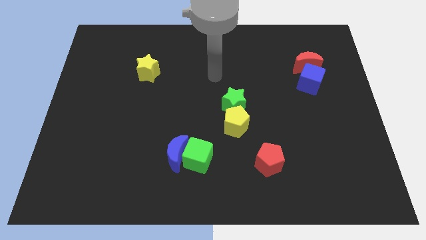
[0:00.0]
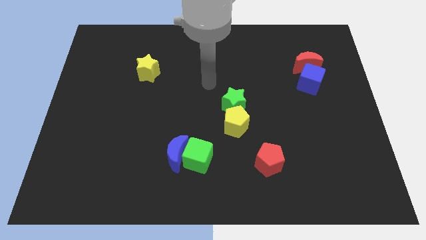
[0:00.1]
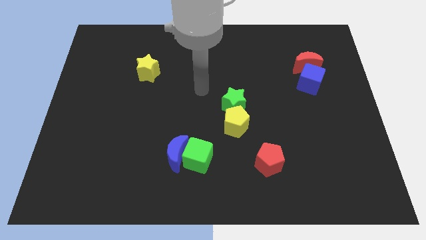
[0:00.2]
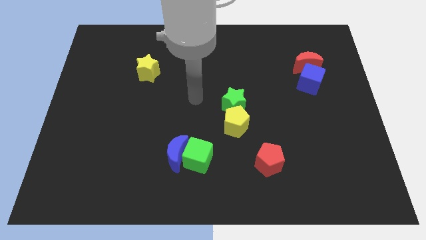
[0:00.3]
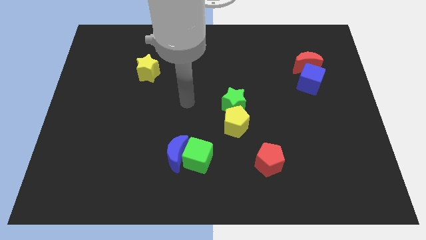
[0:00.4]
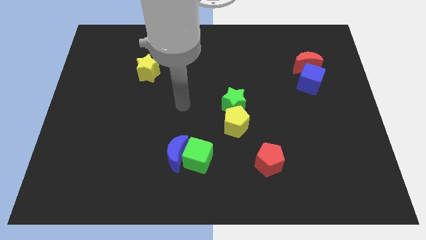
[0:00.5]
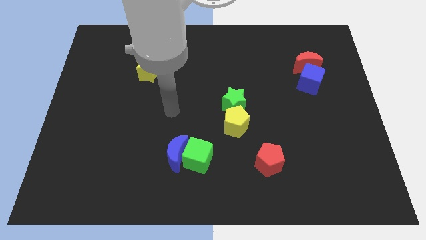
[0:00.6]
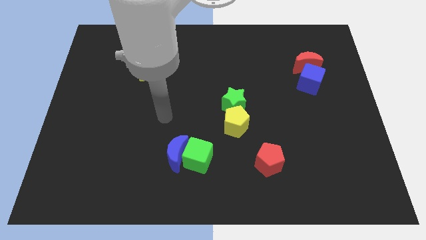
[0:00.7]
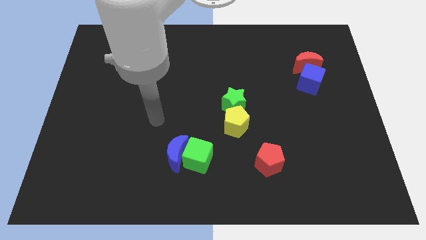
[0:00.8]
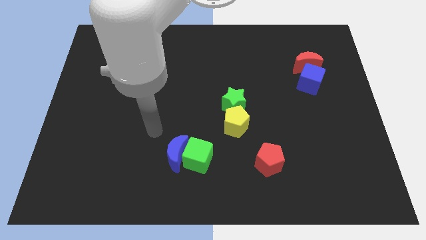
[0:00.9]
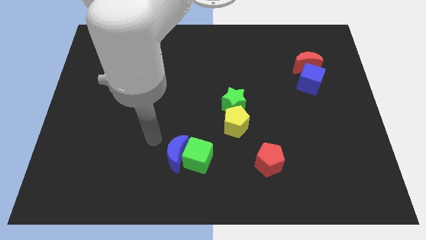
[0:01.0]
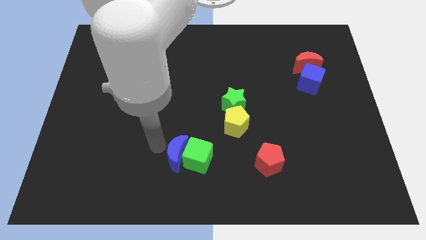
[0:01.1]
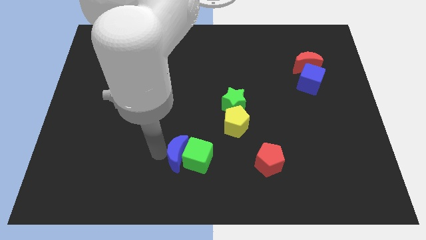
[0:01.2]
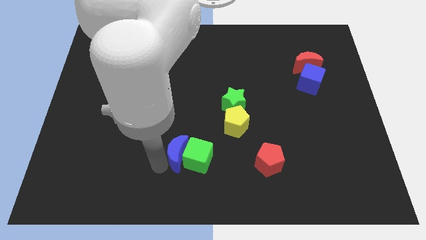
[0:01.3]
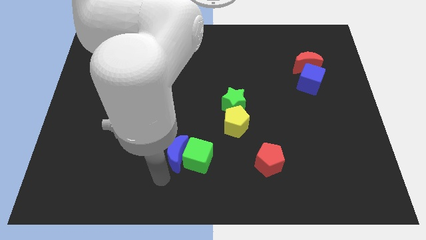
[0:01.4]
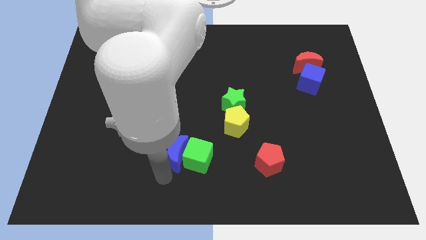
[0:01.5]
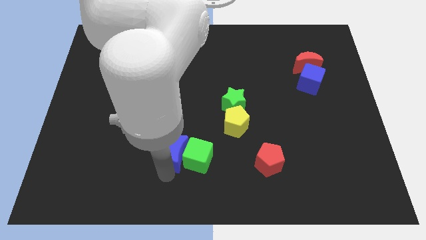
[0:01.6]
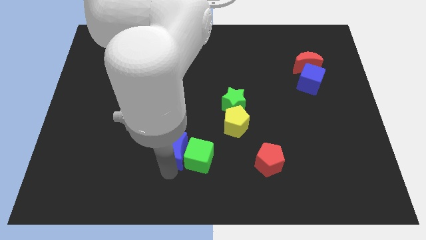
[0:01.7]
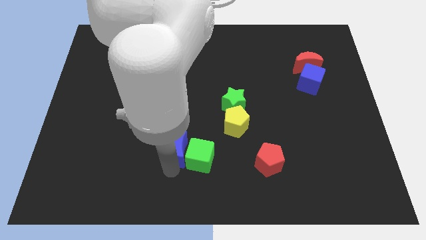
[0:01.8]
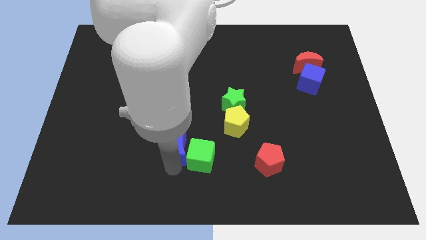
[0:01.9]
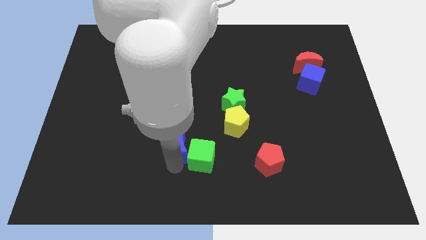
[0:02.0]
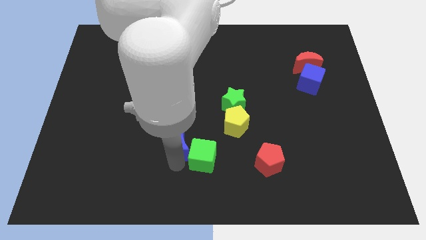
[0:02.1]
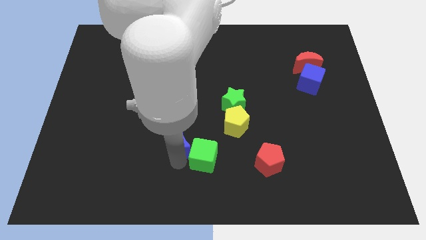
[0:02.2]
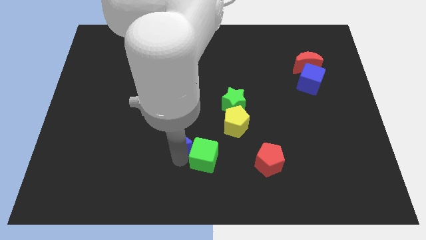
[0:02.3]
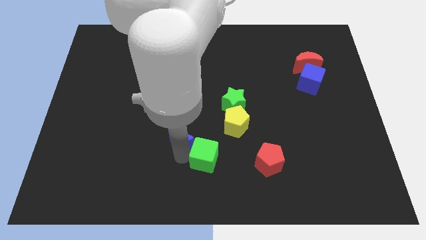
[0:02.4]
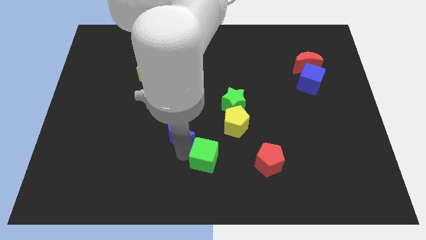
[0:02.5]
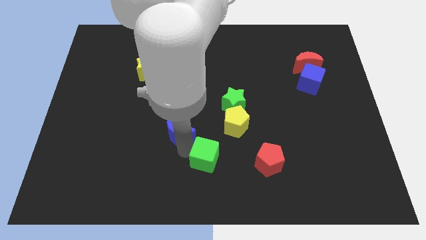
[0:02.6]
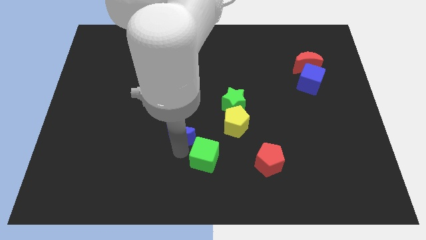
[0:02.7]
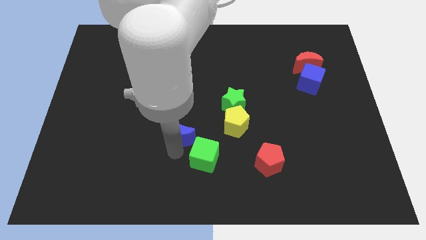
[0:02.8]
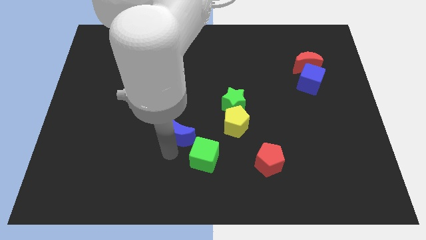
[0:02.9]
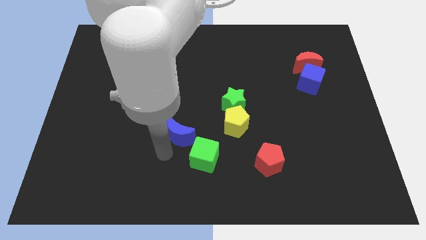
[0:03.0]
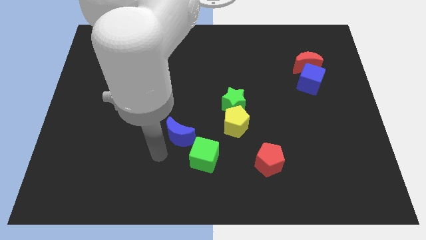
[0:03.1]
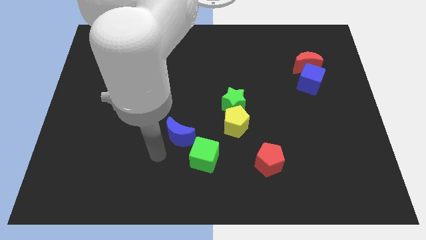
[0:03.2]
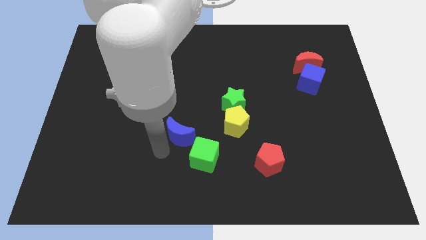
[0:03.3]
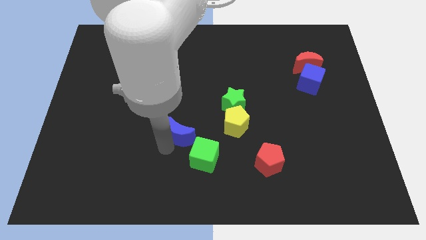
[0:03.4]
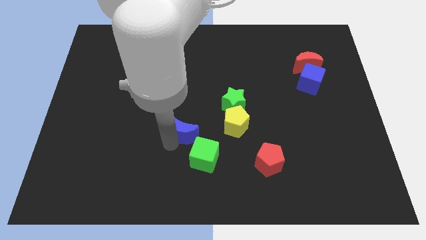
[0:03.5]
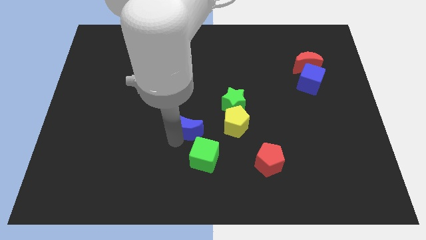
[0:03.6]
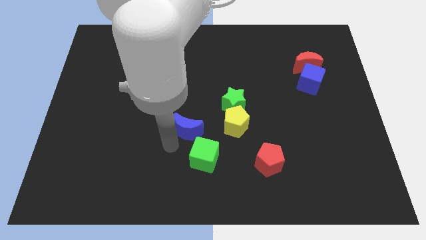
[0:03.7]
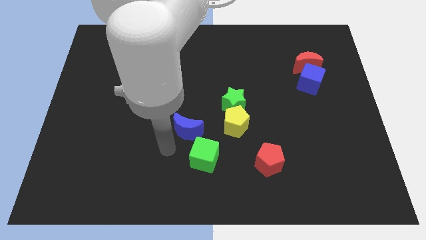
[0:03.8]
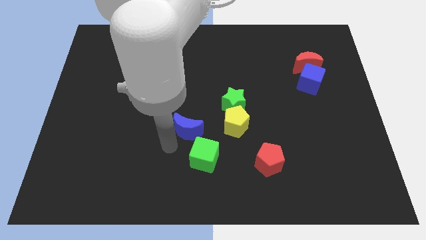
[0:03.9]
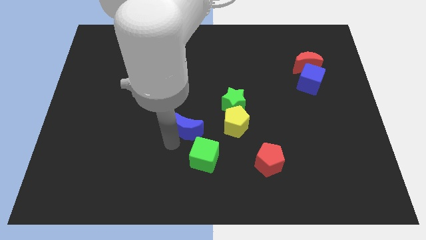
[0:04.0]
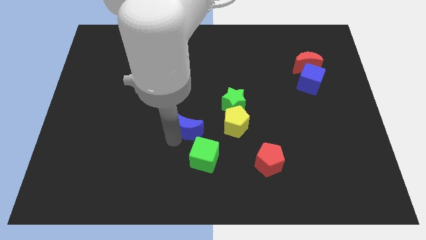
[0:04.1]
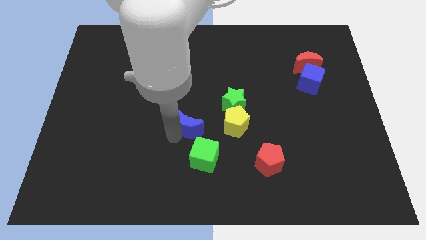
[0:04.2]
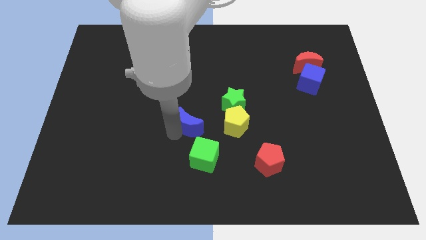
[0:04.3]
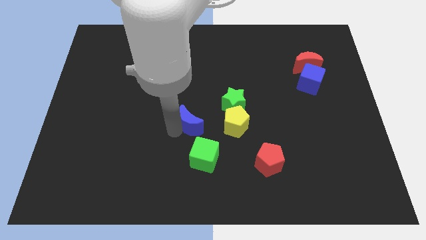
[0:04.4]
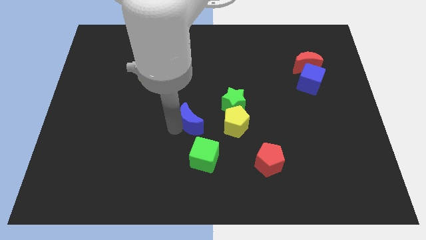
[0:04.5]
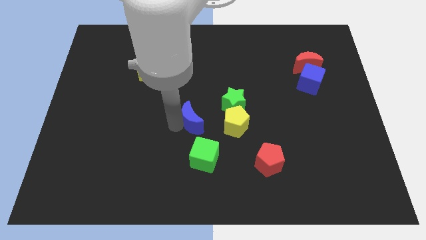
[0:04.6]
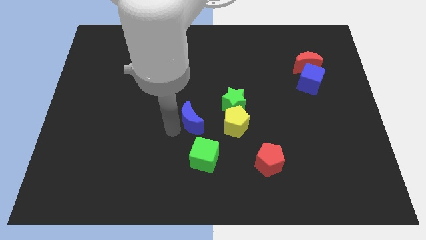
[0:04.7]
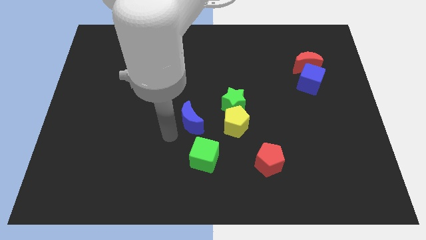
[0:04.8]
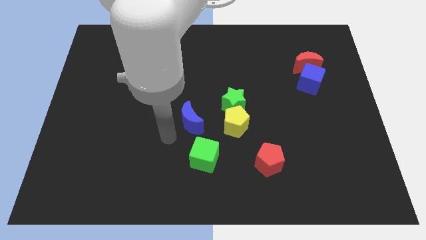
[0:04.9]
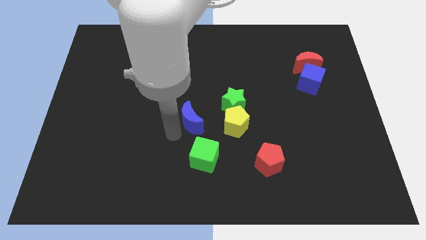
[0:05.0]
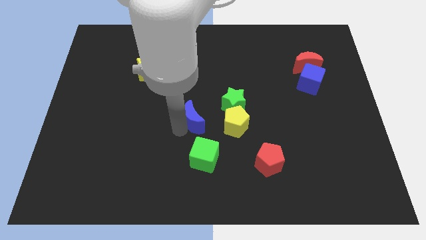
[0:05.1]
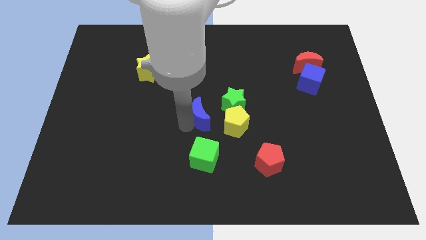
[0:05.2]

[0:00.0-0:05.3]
slide the blue moon diagonally up and to the left of the yellow pentagon

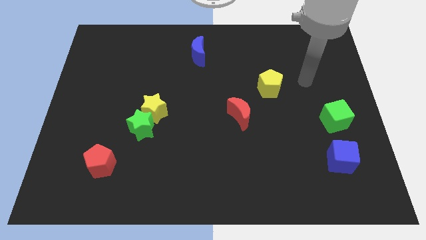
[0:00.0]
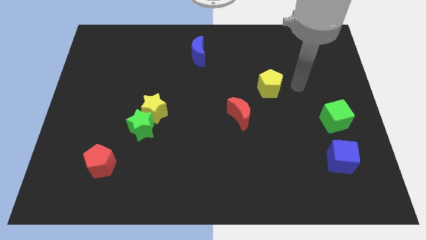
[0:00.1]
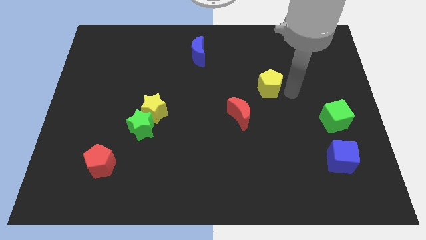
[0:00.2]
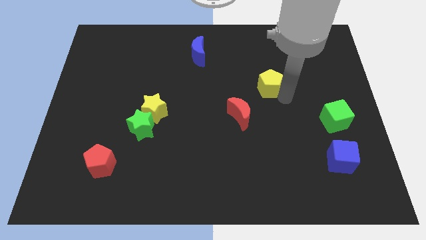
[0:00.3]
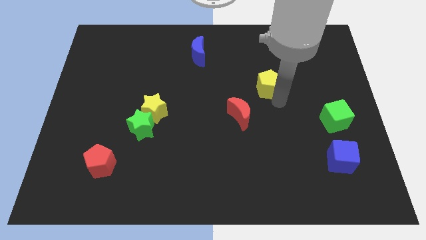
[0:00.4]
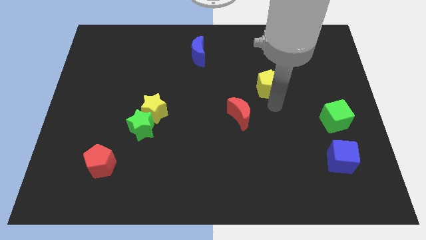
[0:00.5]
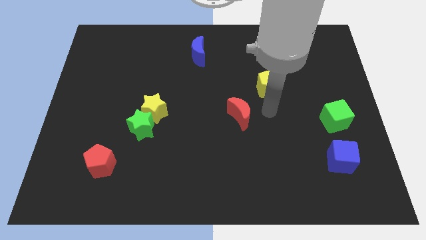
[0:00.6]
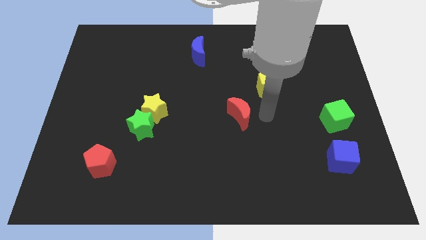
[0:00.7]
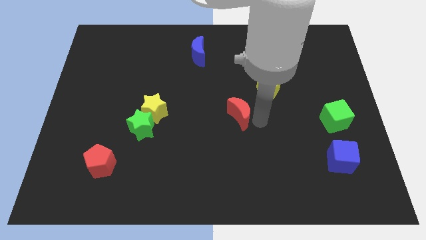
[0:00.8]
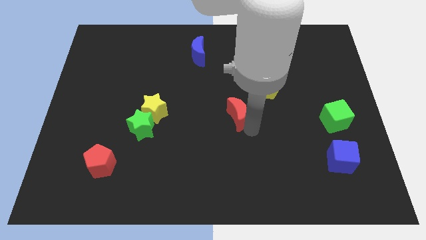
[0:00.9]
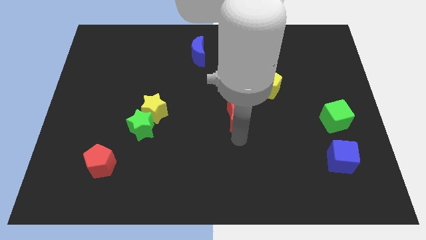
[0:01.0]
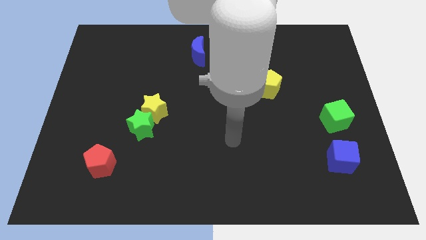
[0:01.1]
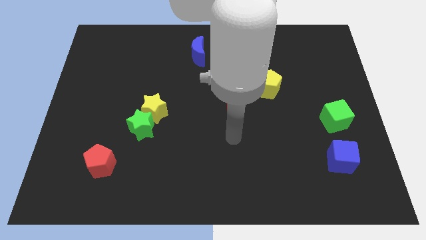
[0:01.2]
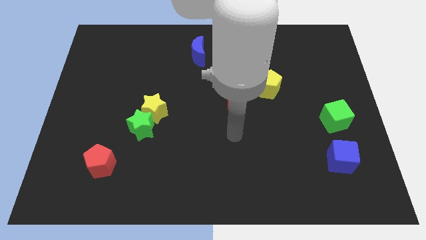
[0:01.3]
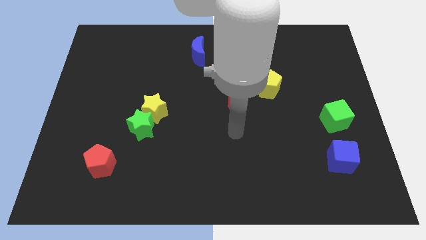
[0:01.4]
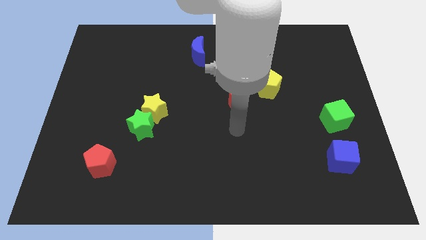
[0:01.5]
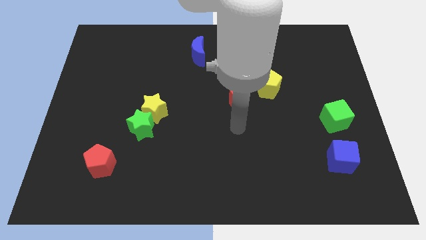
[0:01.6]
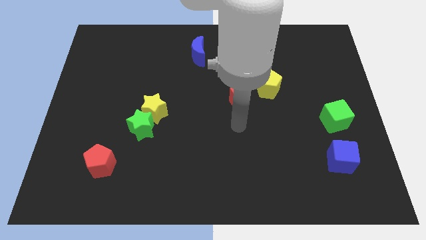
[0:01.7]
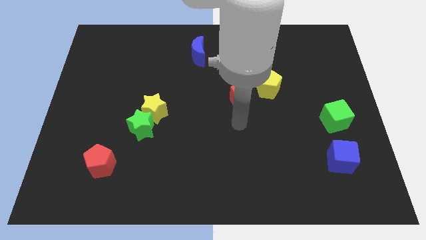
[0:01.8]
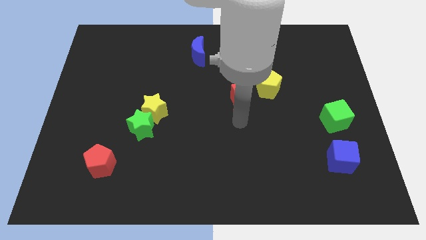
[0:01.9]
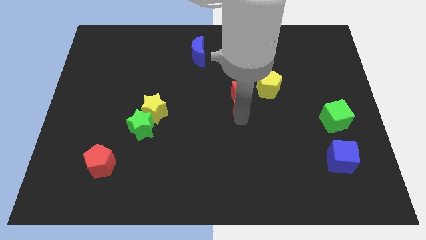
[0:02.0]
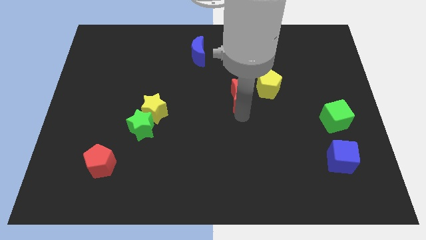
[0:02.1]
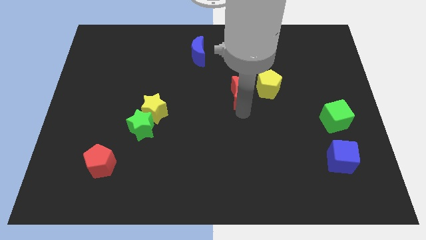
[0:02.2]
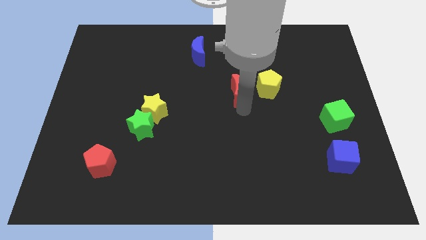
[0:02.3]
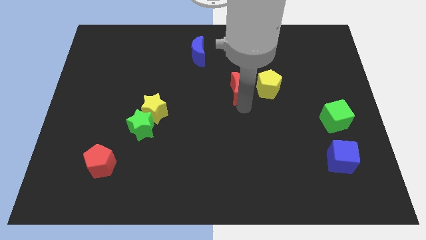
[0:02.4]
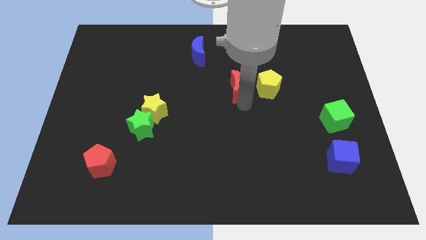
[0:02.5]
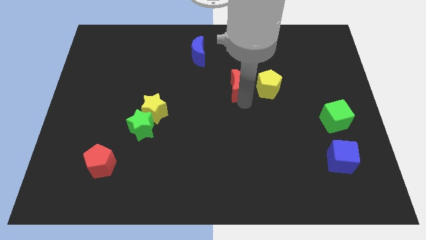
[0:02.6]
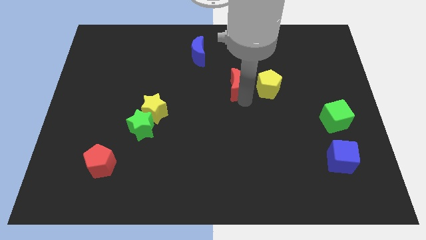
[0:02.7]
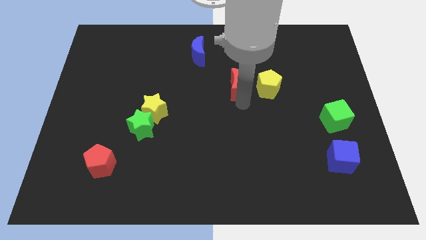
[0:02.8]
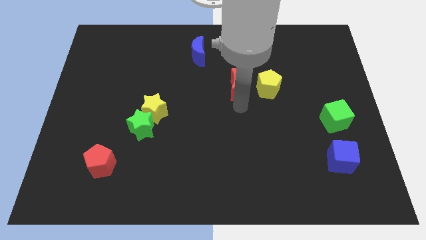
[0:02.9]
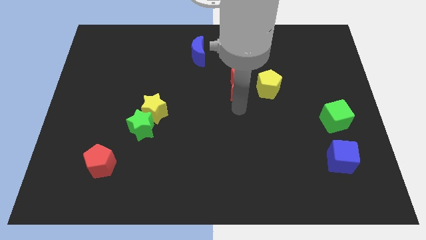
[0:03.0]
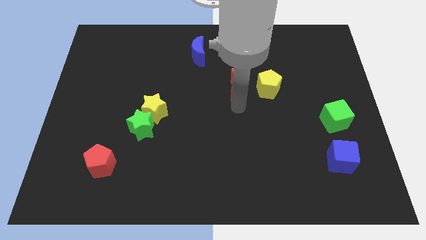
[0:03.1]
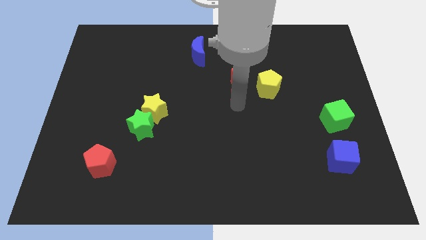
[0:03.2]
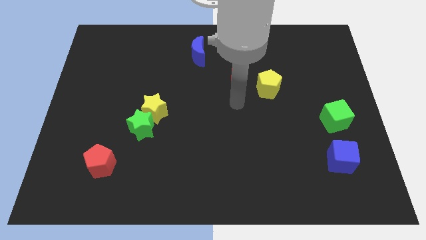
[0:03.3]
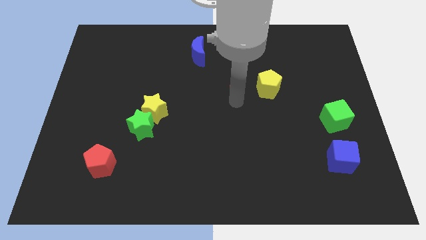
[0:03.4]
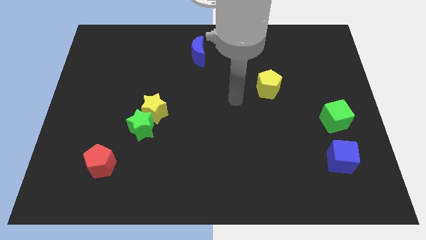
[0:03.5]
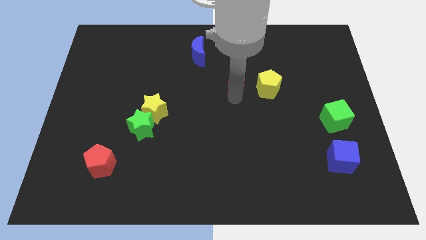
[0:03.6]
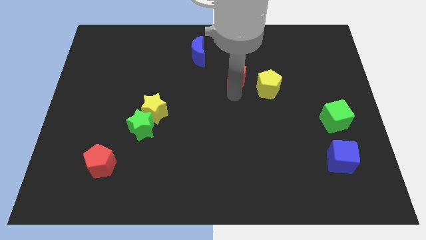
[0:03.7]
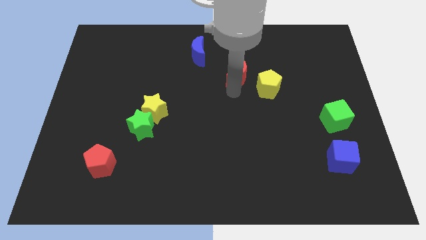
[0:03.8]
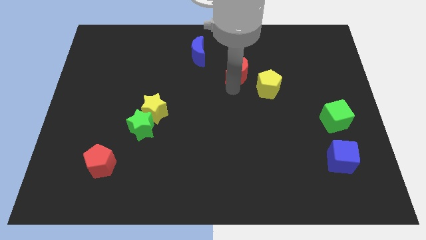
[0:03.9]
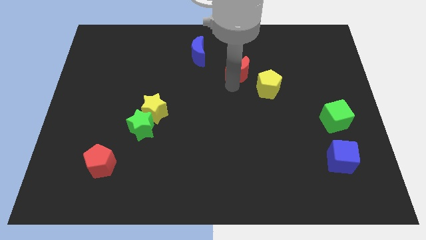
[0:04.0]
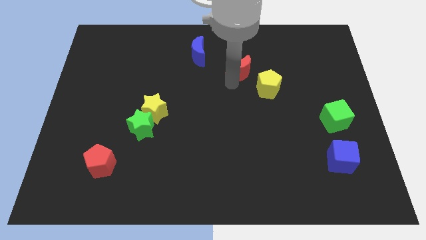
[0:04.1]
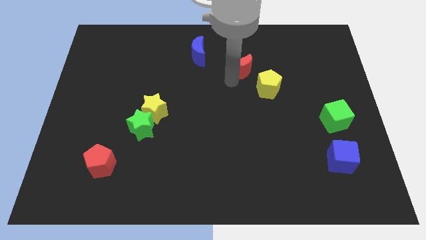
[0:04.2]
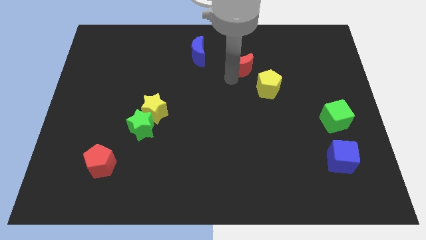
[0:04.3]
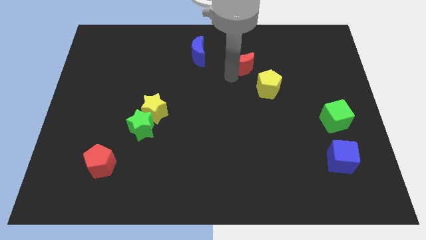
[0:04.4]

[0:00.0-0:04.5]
push the red moon to the right of the blue moon
